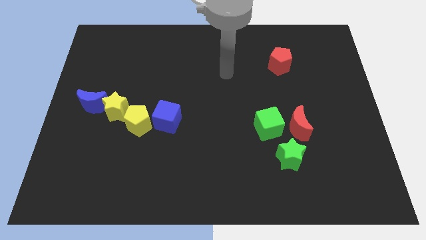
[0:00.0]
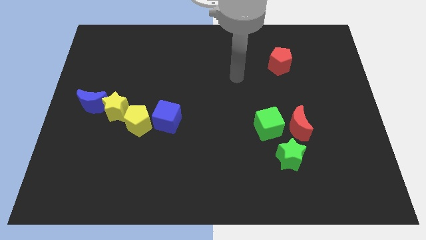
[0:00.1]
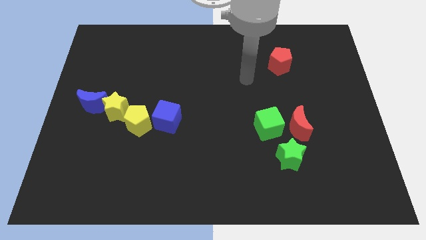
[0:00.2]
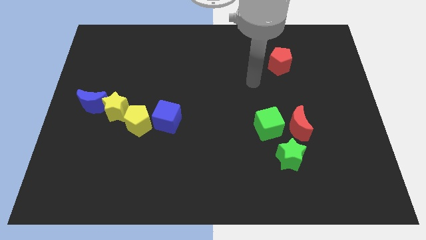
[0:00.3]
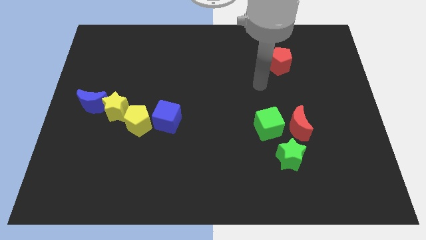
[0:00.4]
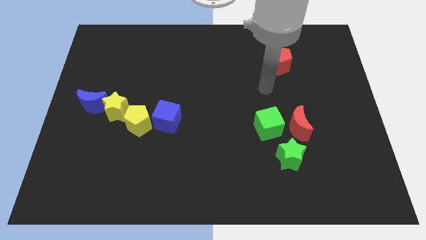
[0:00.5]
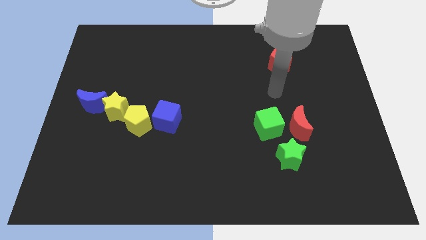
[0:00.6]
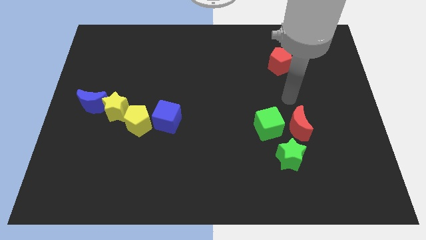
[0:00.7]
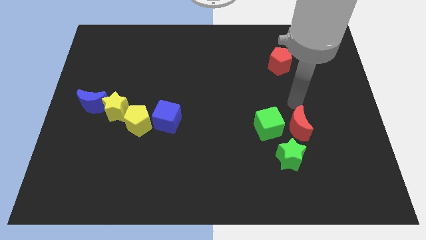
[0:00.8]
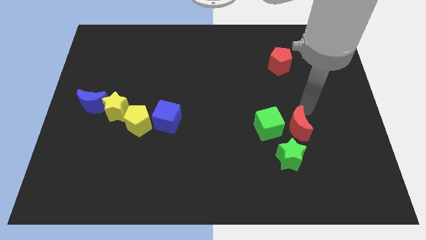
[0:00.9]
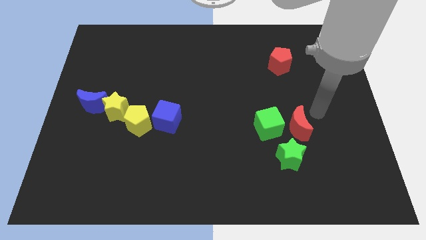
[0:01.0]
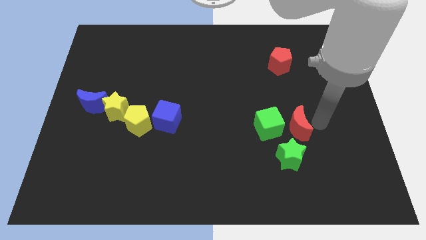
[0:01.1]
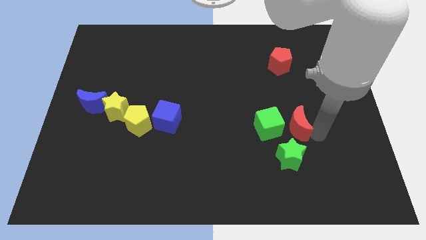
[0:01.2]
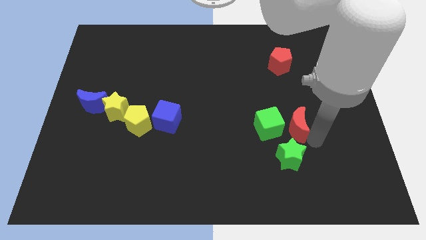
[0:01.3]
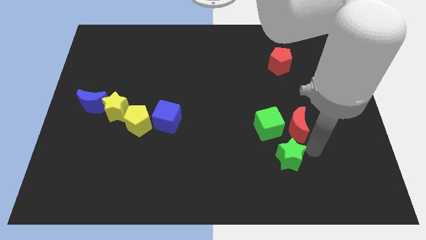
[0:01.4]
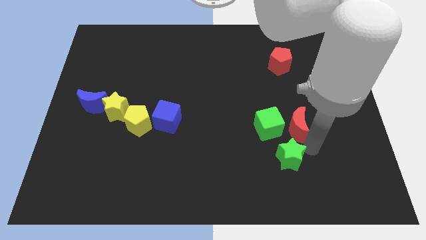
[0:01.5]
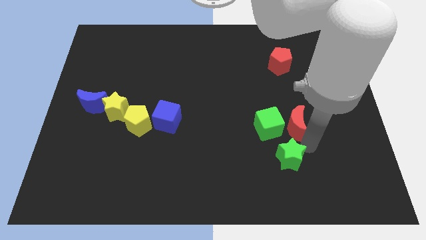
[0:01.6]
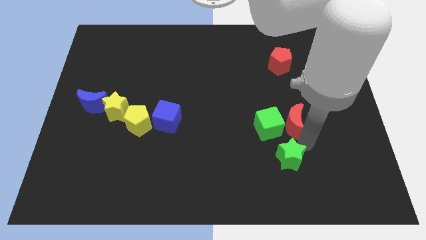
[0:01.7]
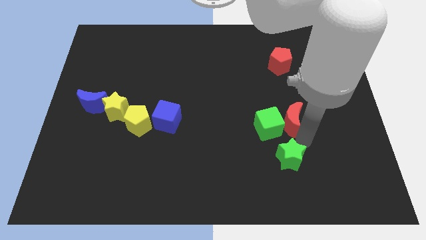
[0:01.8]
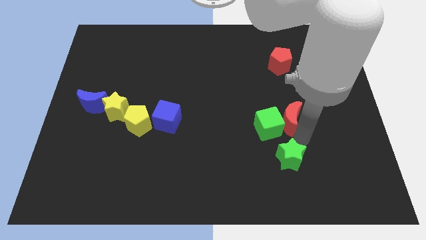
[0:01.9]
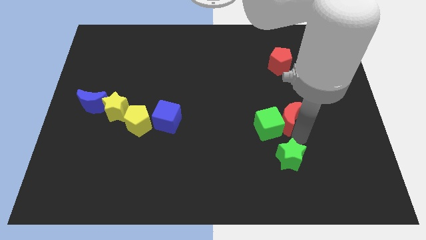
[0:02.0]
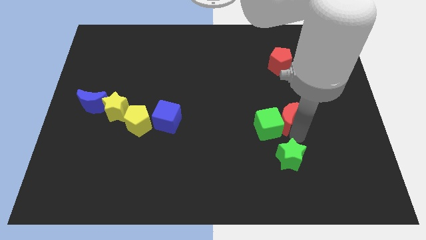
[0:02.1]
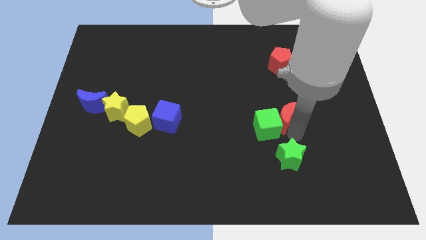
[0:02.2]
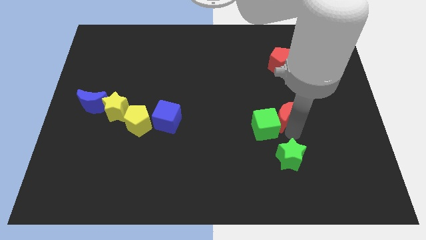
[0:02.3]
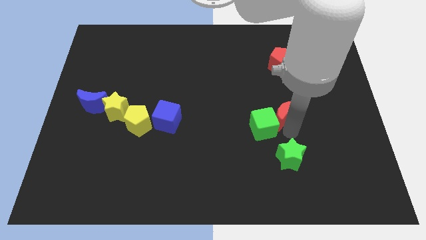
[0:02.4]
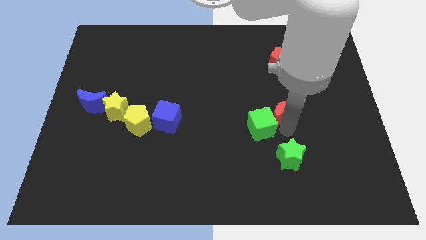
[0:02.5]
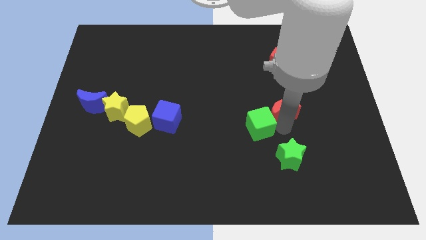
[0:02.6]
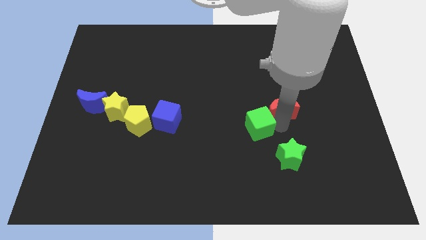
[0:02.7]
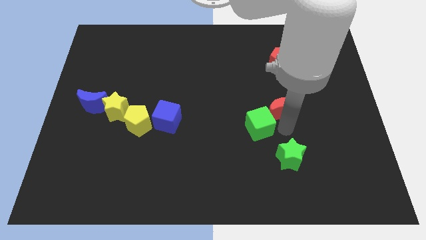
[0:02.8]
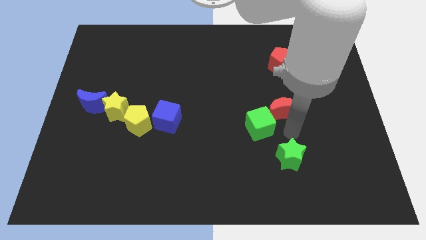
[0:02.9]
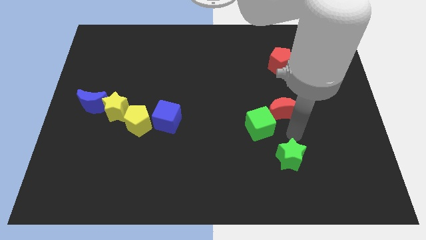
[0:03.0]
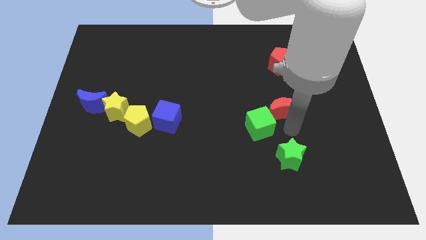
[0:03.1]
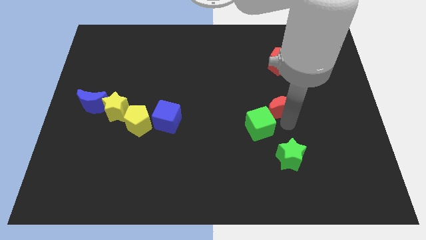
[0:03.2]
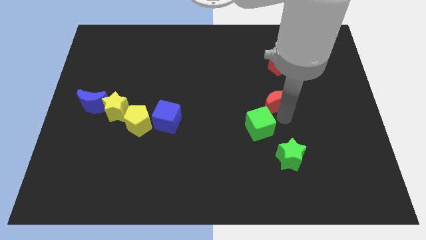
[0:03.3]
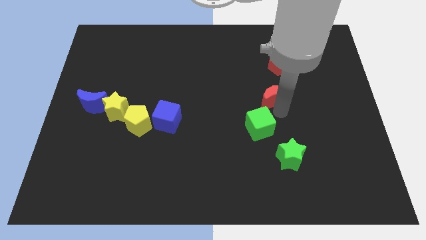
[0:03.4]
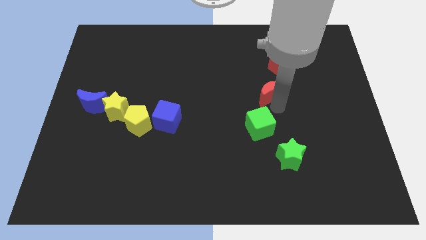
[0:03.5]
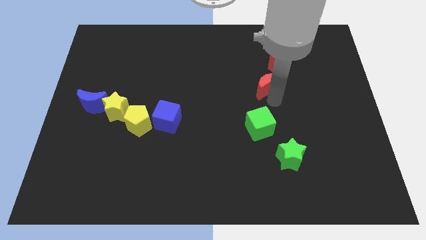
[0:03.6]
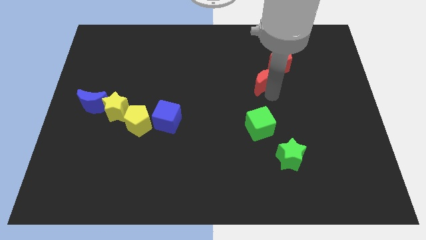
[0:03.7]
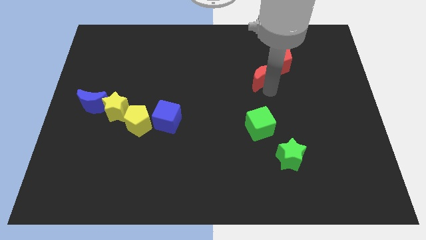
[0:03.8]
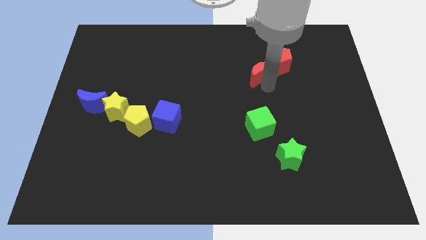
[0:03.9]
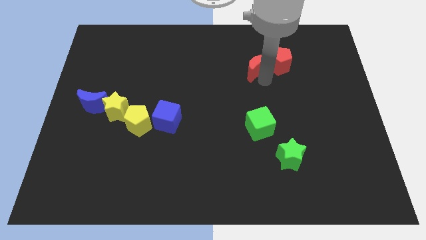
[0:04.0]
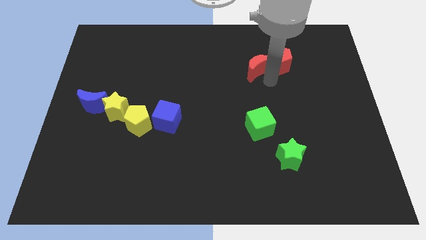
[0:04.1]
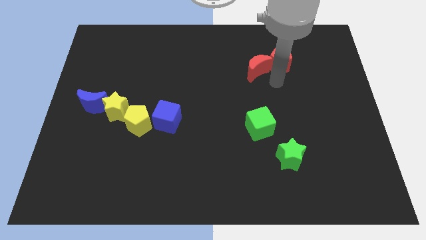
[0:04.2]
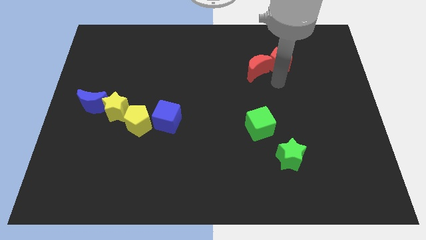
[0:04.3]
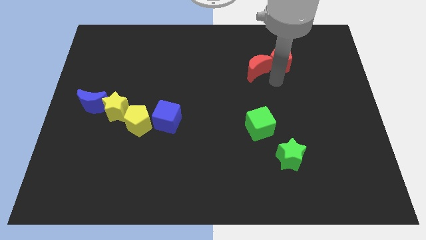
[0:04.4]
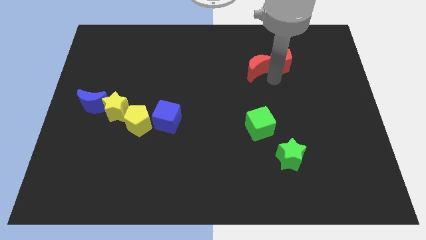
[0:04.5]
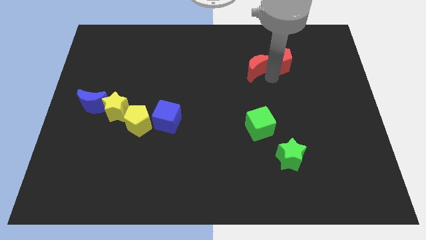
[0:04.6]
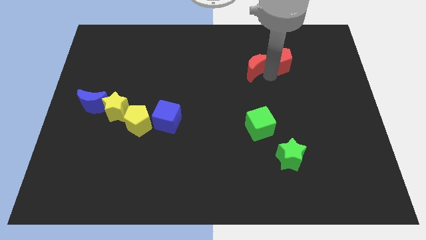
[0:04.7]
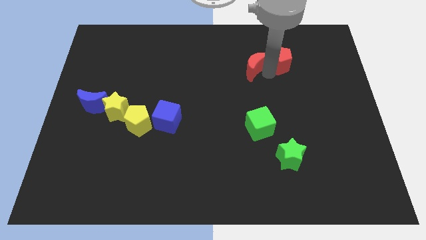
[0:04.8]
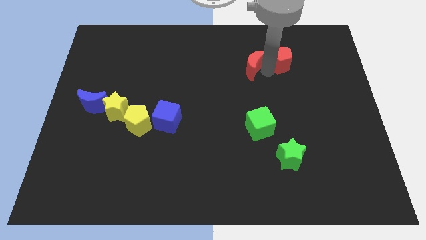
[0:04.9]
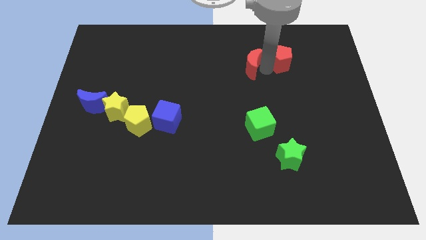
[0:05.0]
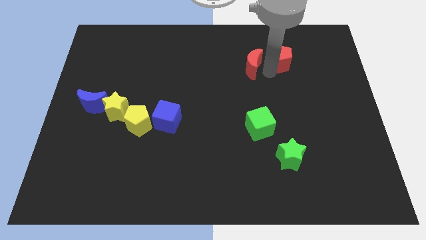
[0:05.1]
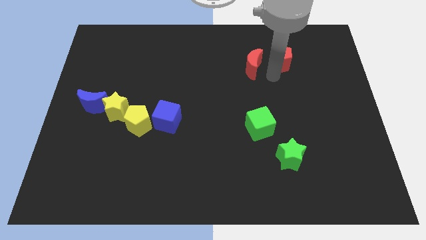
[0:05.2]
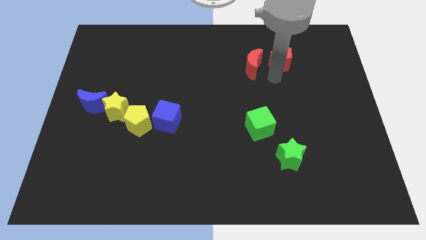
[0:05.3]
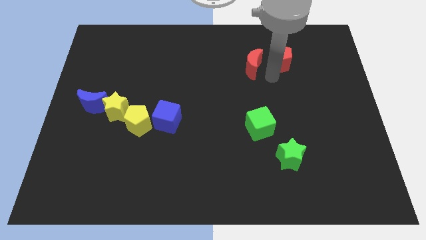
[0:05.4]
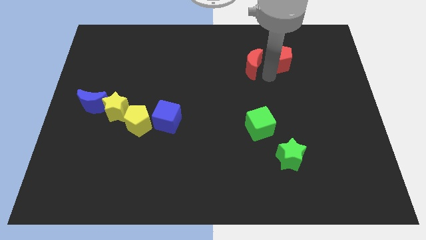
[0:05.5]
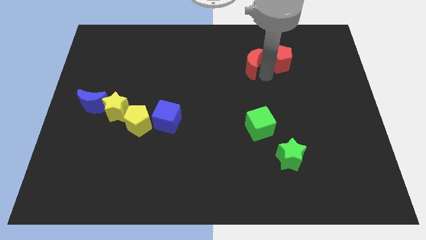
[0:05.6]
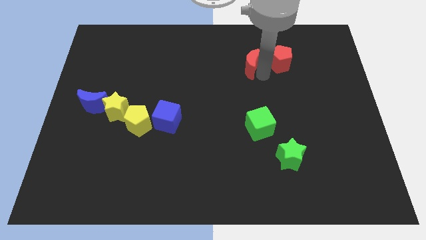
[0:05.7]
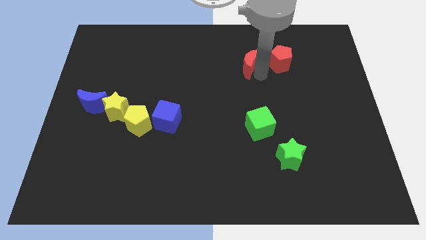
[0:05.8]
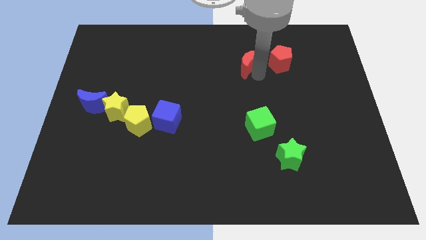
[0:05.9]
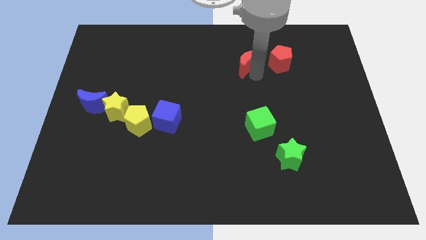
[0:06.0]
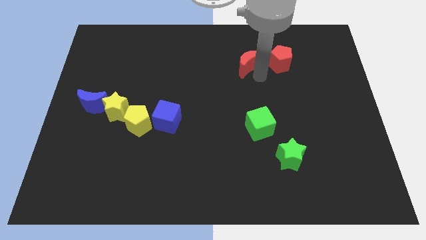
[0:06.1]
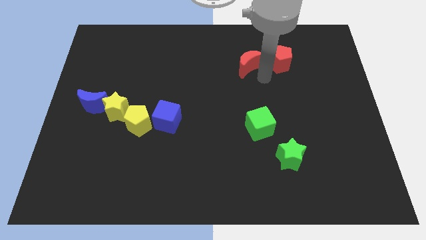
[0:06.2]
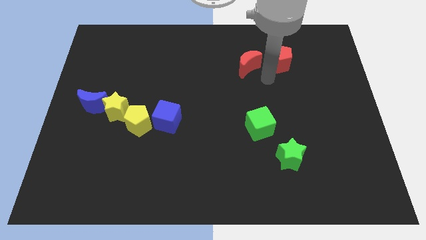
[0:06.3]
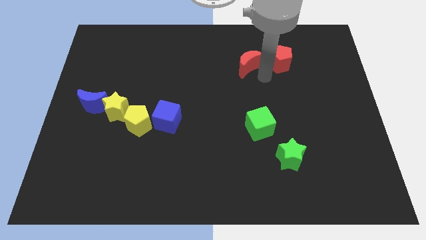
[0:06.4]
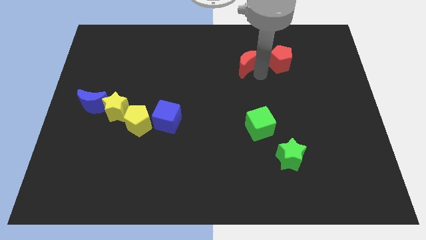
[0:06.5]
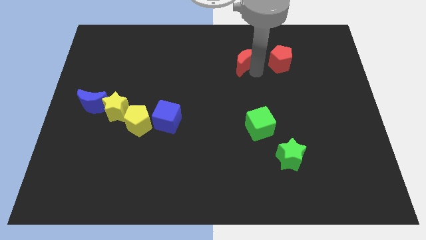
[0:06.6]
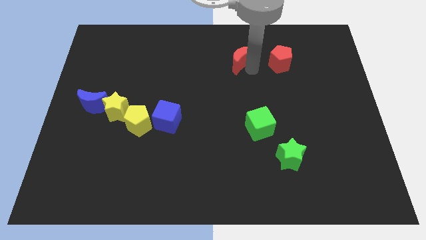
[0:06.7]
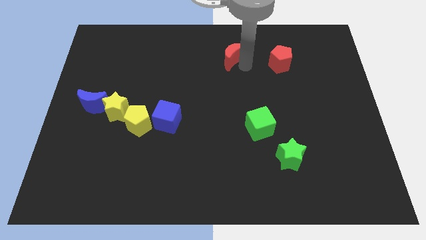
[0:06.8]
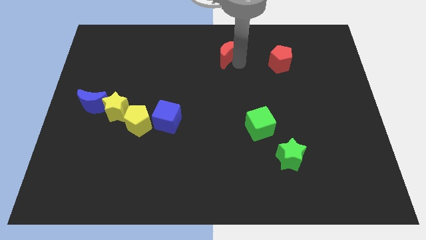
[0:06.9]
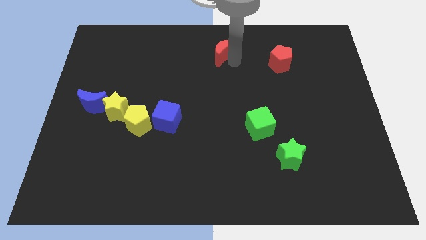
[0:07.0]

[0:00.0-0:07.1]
move the red moon to the towards your base
